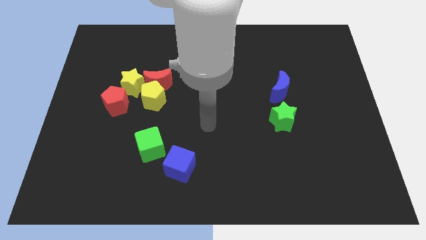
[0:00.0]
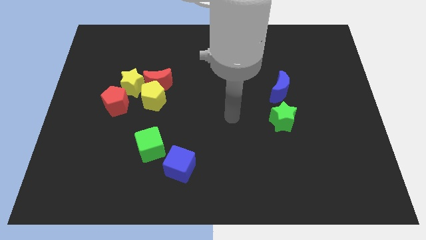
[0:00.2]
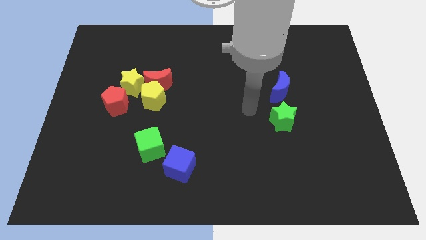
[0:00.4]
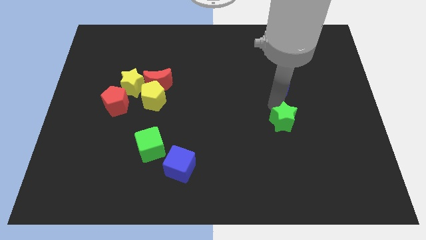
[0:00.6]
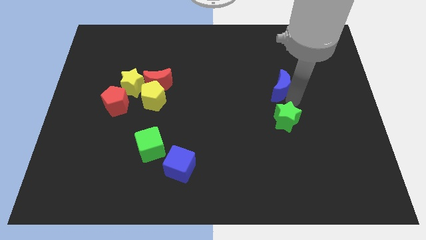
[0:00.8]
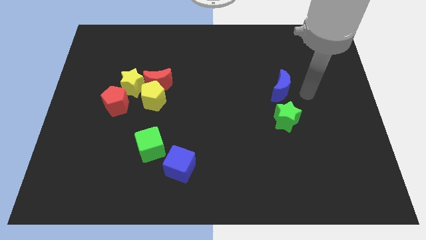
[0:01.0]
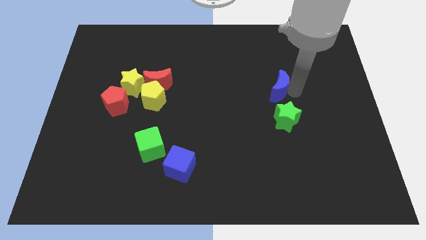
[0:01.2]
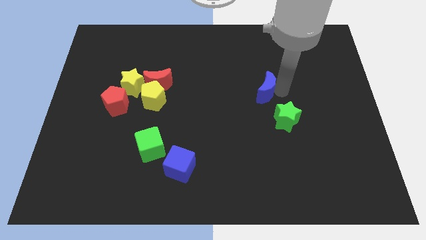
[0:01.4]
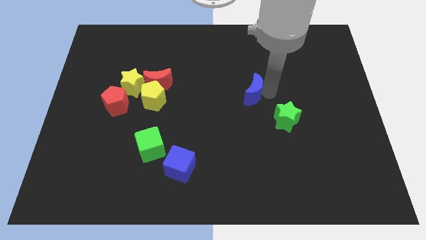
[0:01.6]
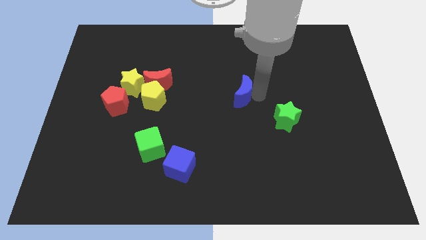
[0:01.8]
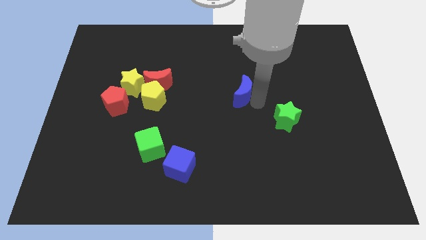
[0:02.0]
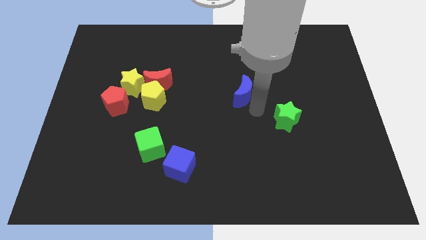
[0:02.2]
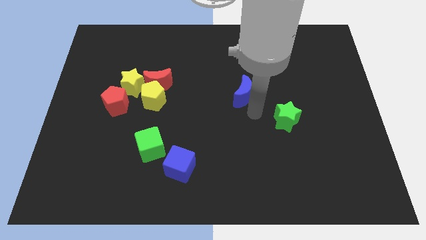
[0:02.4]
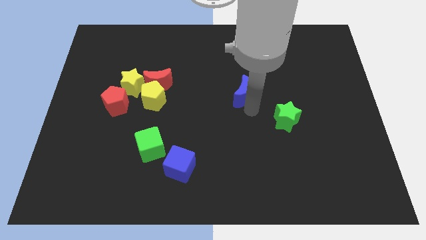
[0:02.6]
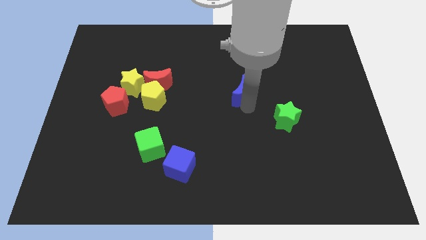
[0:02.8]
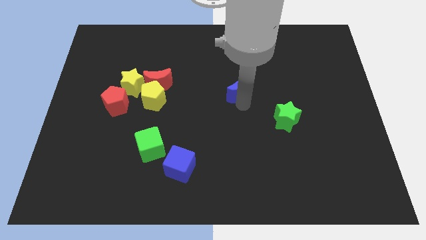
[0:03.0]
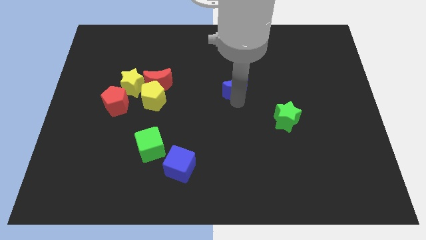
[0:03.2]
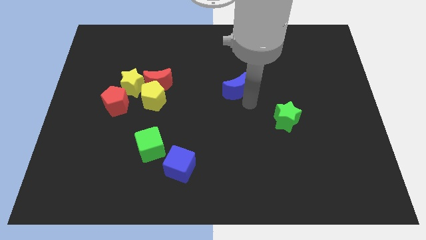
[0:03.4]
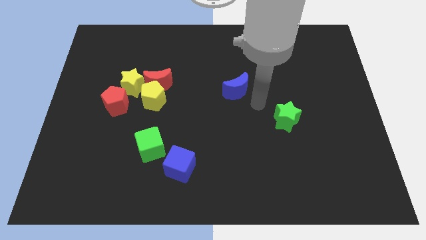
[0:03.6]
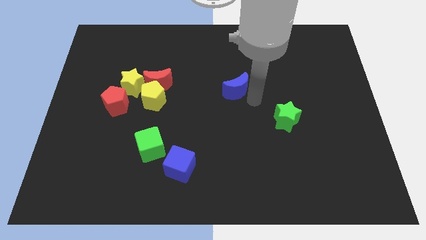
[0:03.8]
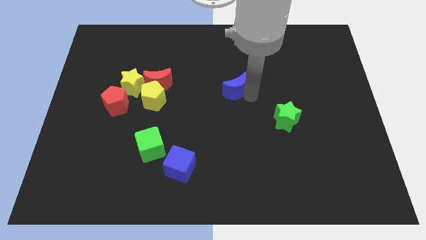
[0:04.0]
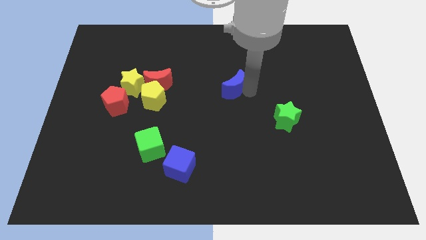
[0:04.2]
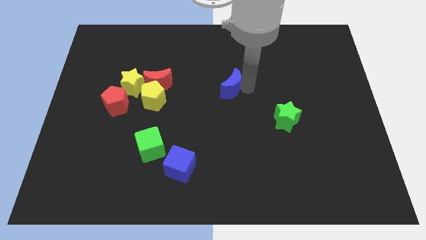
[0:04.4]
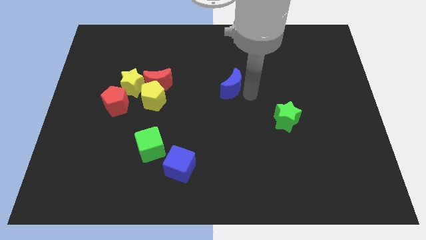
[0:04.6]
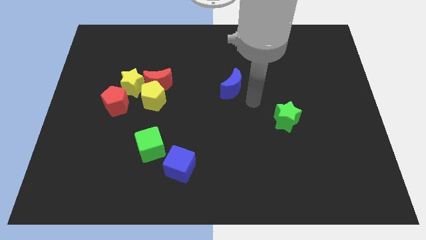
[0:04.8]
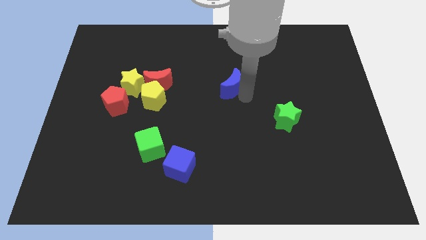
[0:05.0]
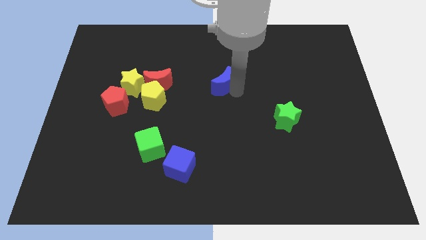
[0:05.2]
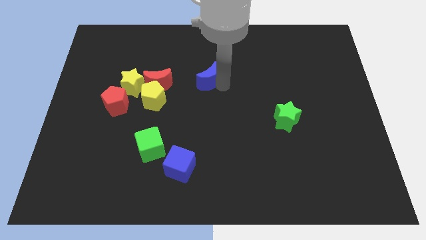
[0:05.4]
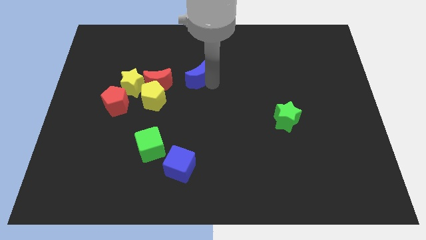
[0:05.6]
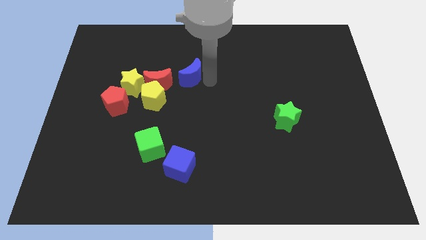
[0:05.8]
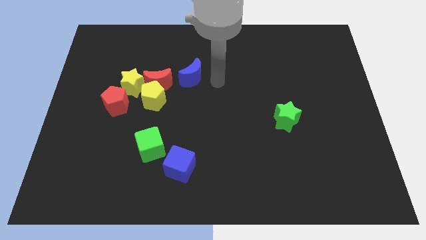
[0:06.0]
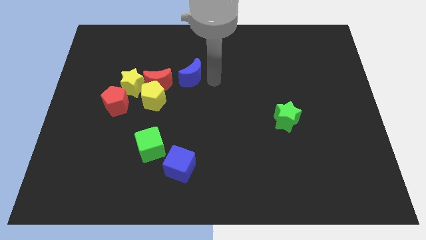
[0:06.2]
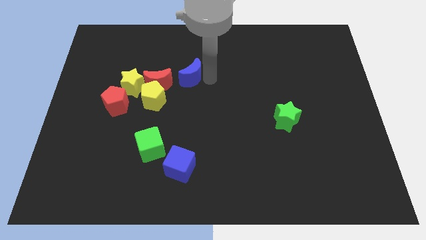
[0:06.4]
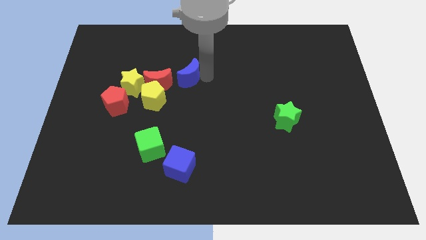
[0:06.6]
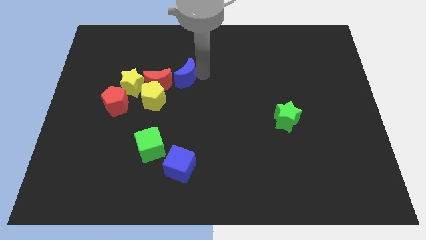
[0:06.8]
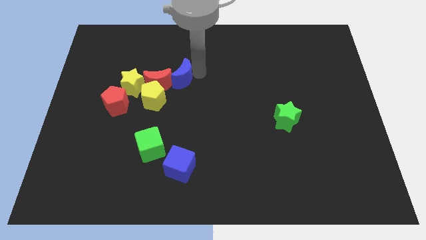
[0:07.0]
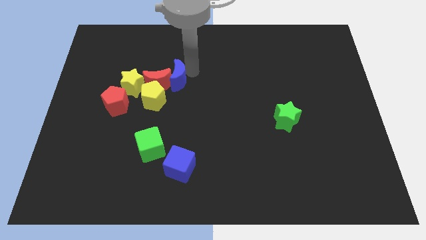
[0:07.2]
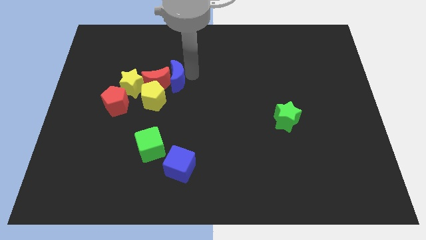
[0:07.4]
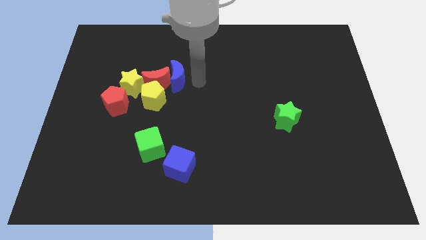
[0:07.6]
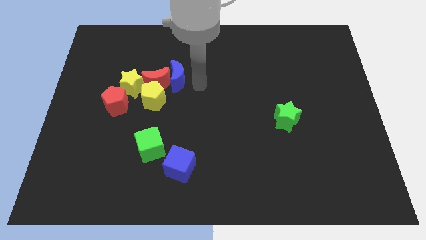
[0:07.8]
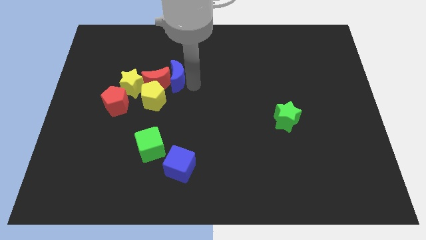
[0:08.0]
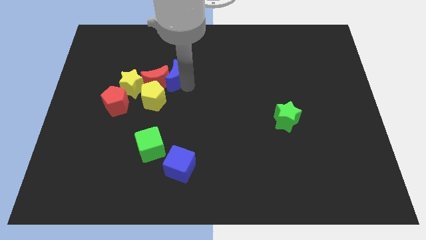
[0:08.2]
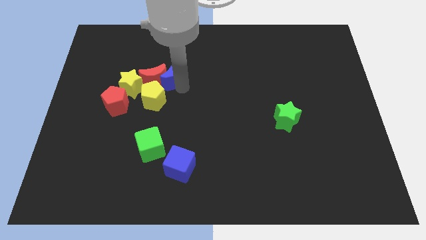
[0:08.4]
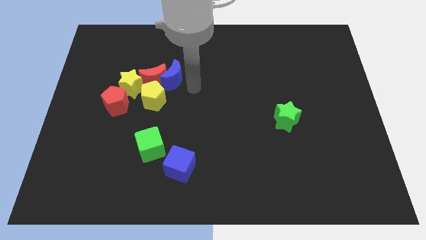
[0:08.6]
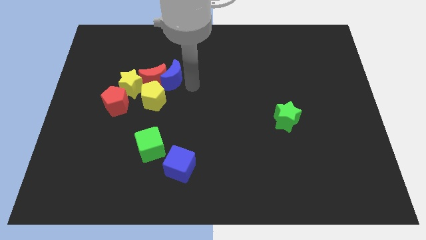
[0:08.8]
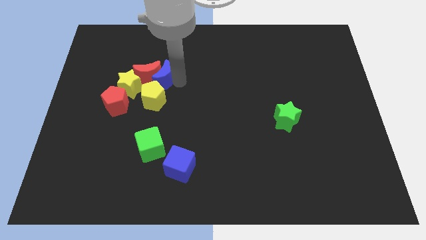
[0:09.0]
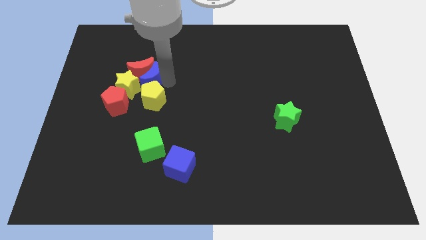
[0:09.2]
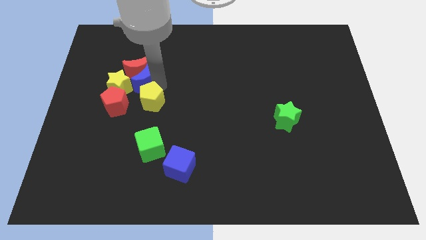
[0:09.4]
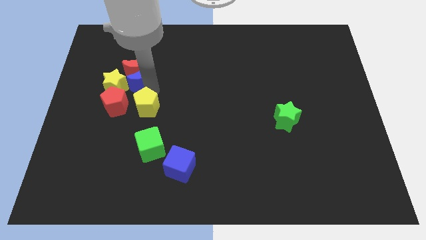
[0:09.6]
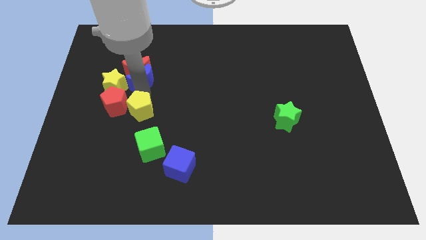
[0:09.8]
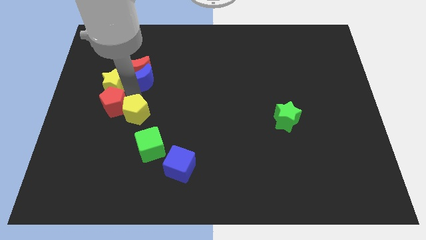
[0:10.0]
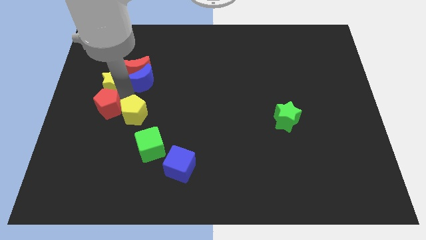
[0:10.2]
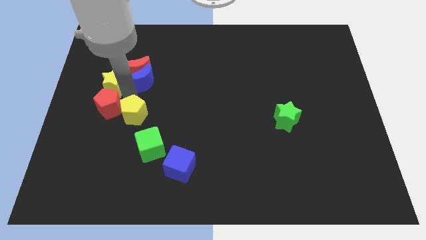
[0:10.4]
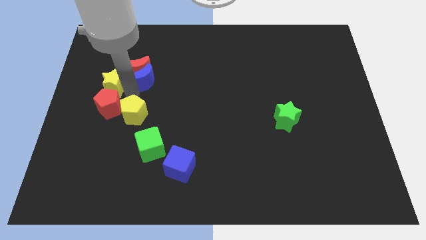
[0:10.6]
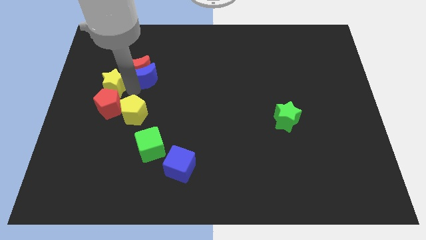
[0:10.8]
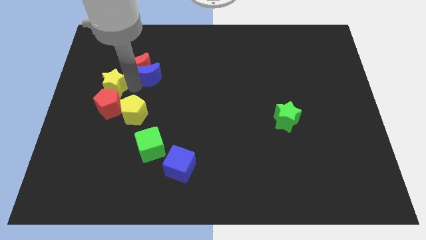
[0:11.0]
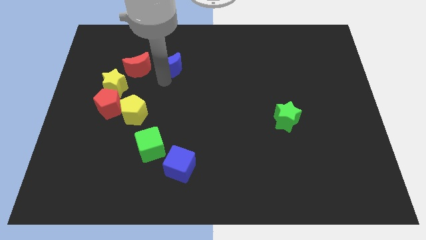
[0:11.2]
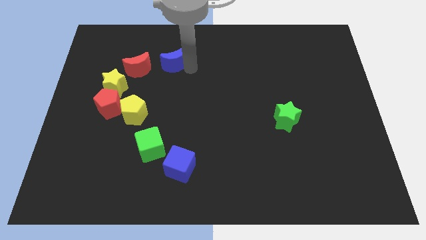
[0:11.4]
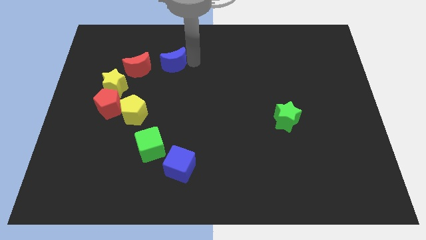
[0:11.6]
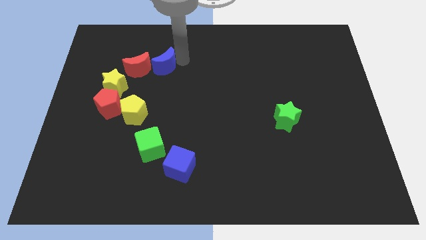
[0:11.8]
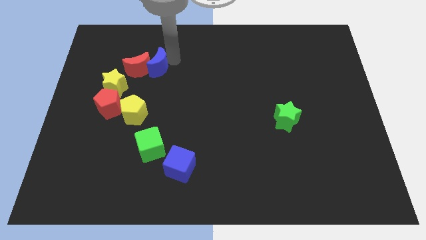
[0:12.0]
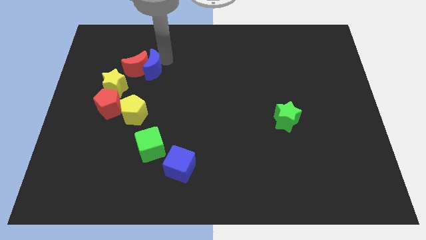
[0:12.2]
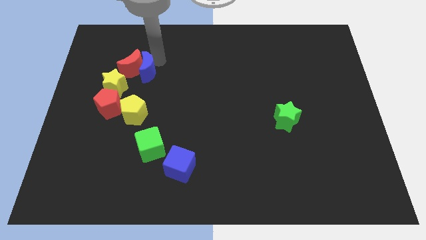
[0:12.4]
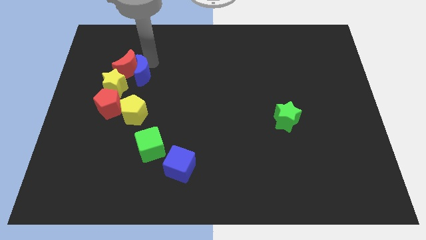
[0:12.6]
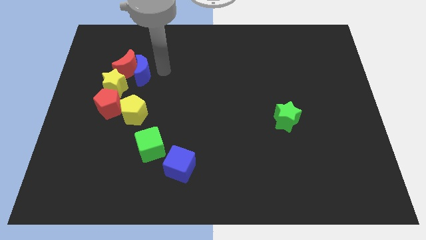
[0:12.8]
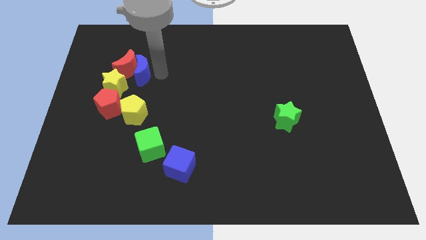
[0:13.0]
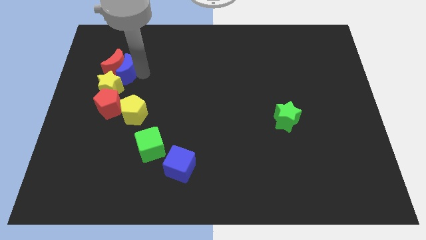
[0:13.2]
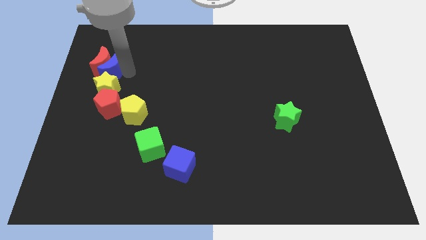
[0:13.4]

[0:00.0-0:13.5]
push the blue moon diagonally up and to the left of the yellow star
